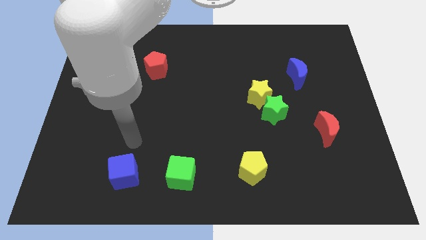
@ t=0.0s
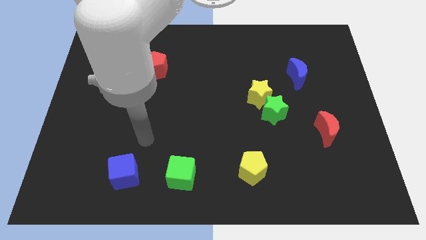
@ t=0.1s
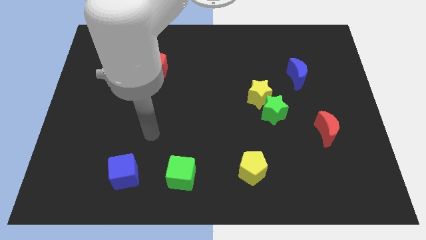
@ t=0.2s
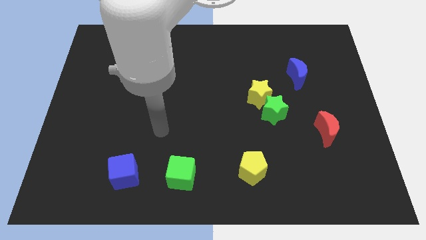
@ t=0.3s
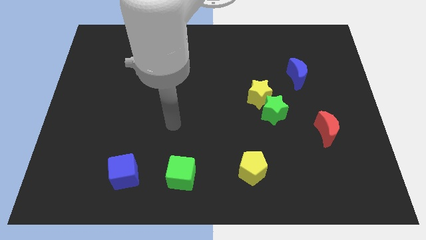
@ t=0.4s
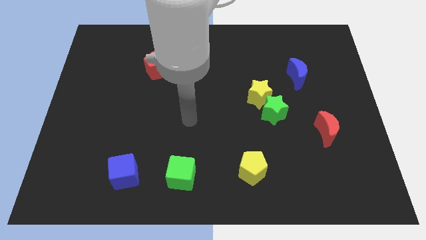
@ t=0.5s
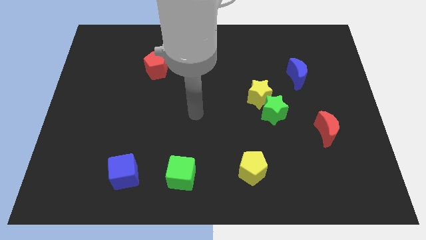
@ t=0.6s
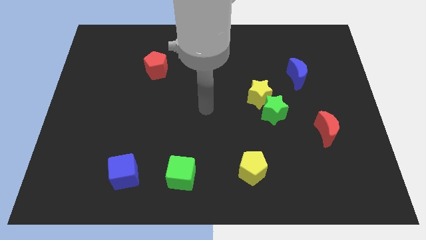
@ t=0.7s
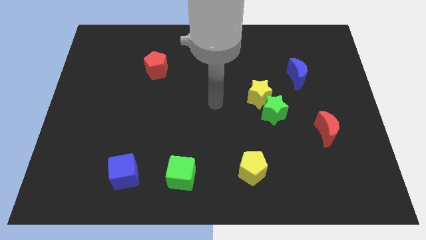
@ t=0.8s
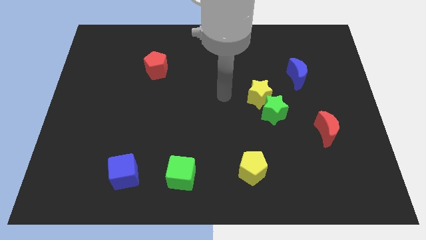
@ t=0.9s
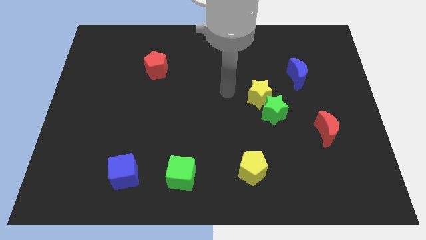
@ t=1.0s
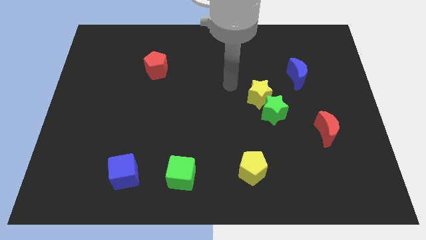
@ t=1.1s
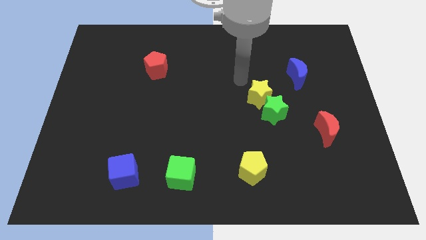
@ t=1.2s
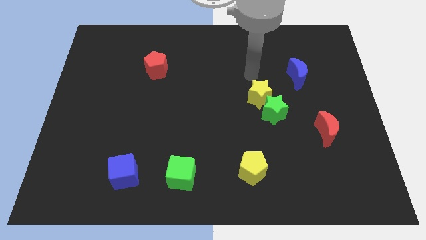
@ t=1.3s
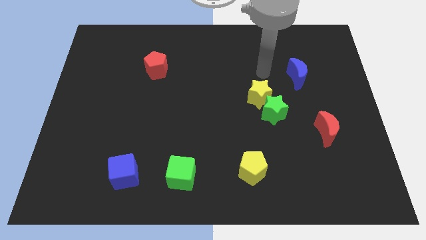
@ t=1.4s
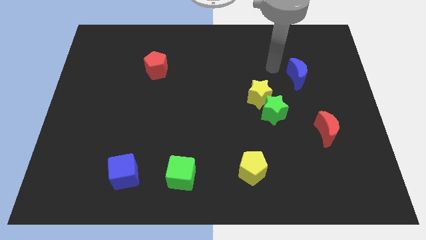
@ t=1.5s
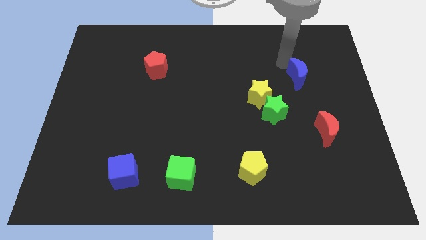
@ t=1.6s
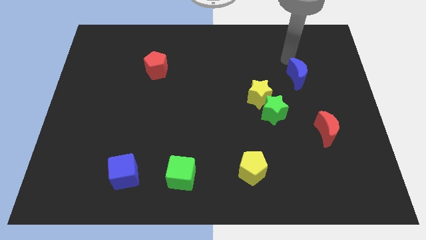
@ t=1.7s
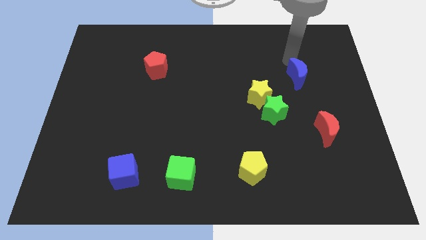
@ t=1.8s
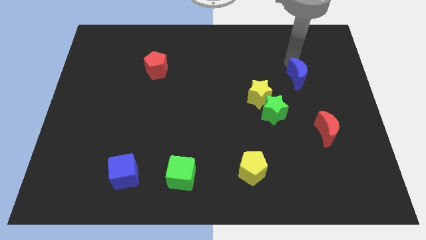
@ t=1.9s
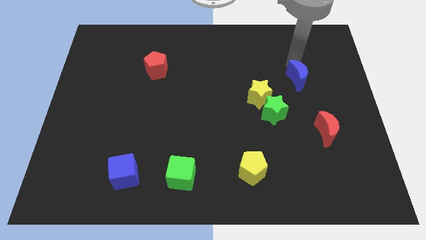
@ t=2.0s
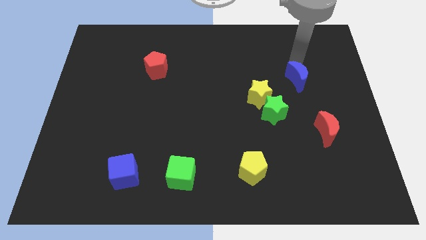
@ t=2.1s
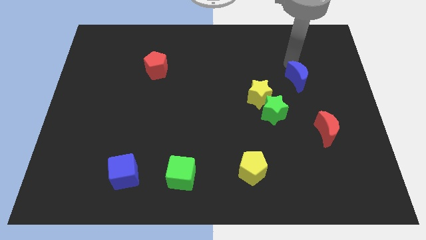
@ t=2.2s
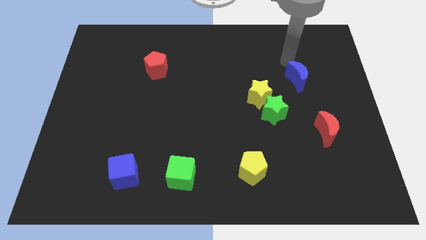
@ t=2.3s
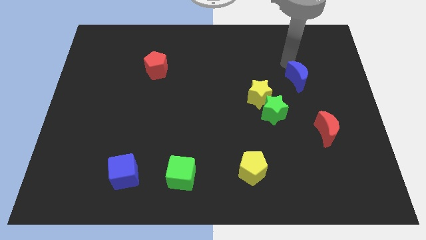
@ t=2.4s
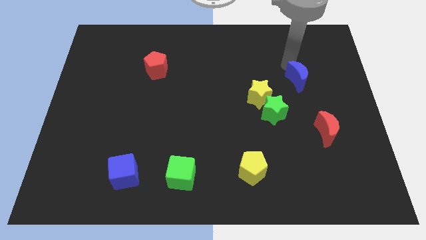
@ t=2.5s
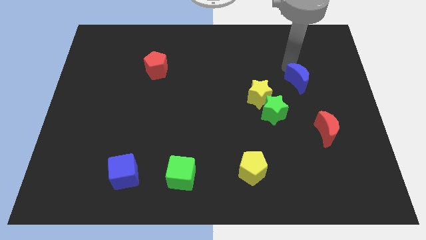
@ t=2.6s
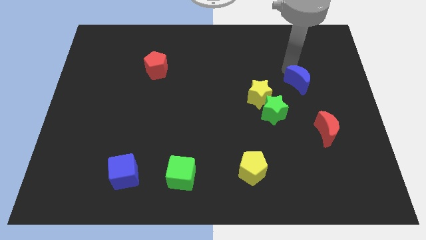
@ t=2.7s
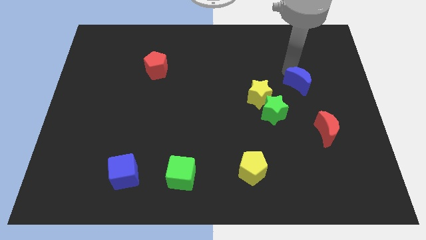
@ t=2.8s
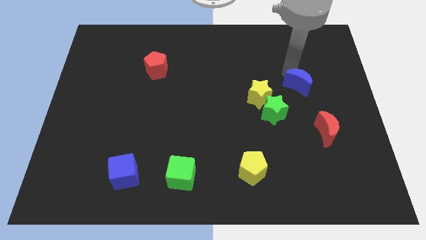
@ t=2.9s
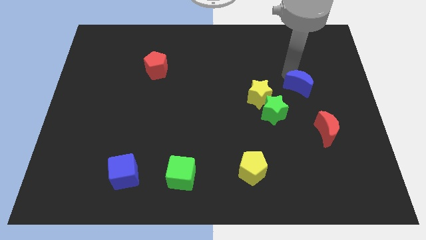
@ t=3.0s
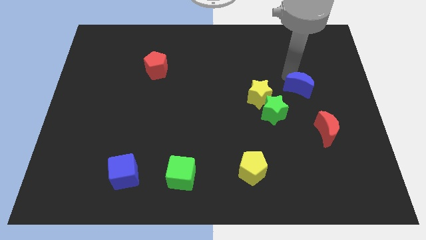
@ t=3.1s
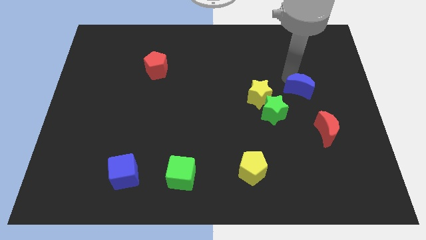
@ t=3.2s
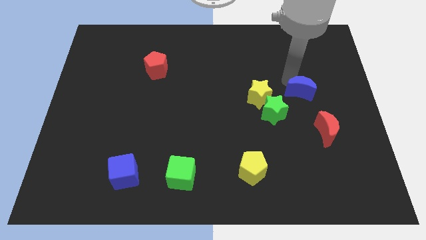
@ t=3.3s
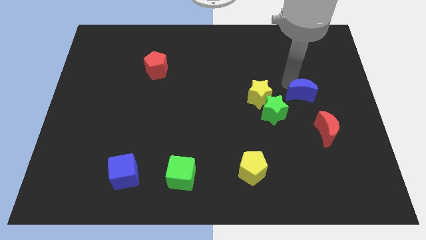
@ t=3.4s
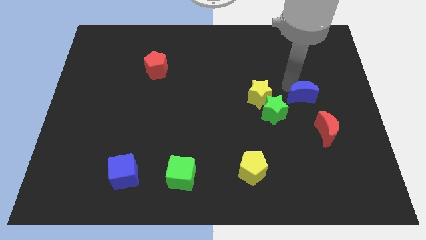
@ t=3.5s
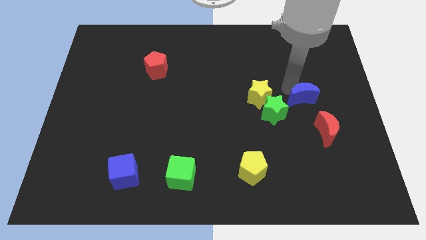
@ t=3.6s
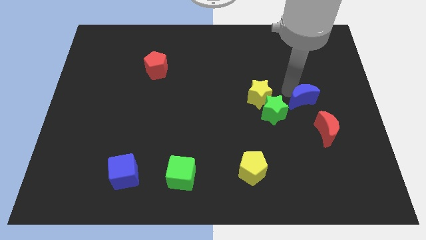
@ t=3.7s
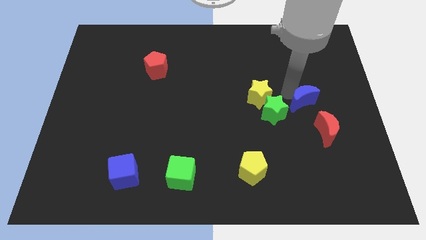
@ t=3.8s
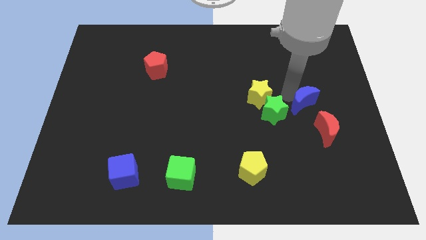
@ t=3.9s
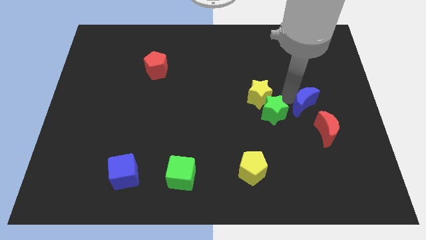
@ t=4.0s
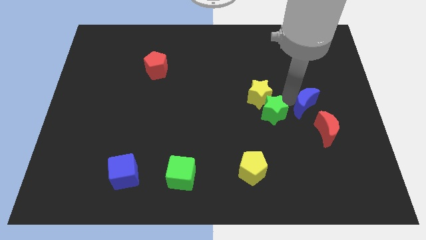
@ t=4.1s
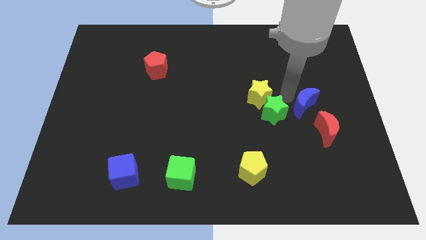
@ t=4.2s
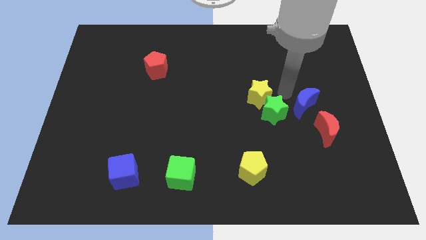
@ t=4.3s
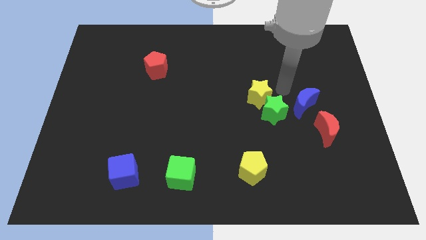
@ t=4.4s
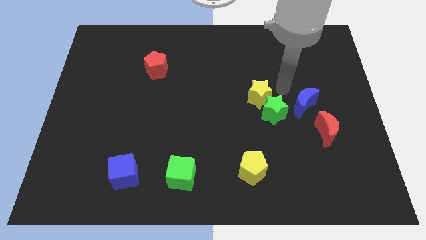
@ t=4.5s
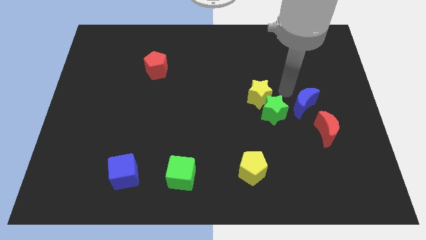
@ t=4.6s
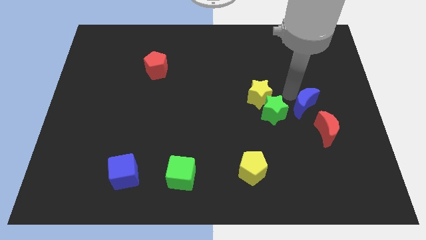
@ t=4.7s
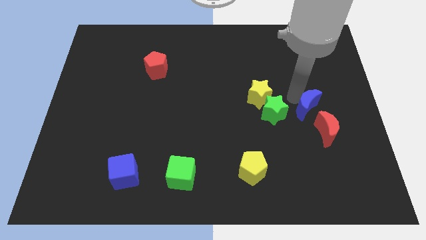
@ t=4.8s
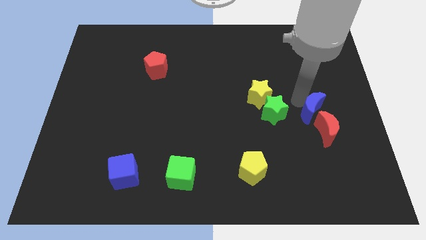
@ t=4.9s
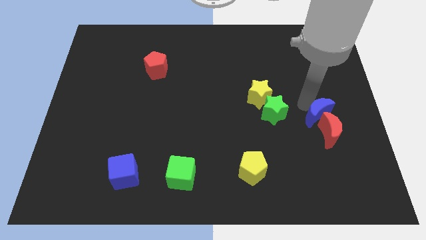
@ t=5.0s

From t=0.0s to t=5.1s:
move the blue moon close to the red moon

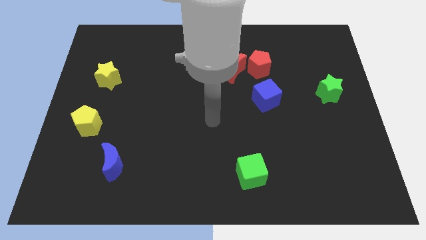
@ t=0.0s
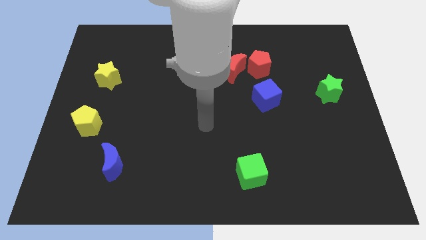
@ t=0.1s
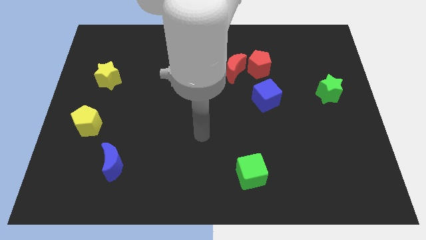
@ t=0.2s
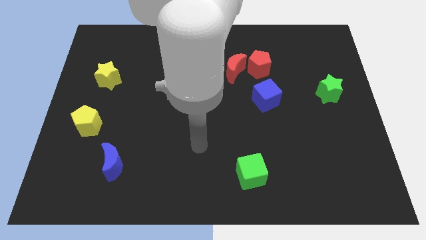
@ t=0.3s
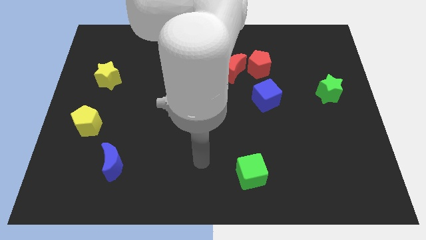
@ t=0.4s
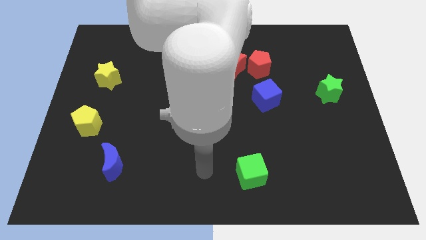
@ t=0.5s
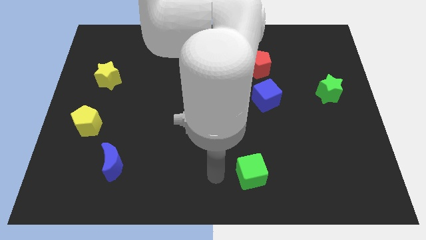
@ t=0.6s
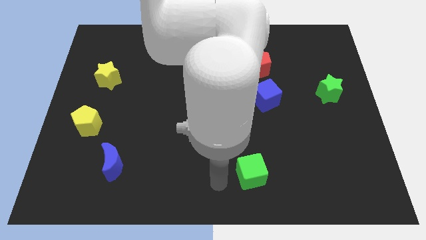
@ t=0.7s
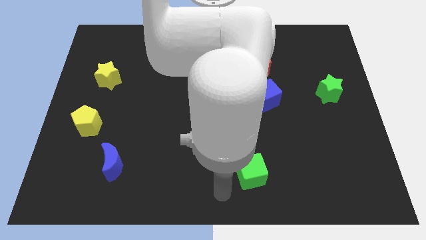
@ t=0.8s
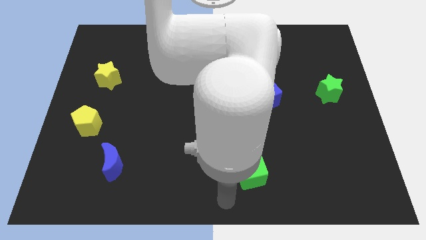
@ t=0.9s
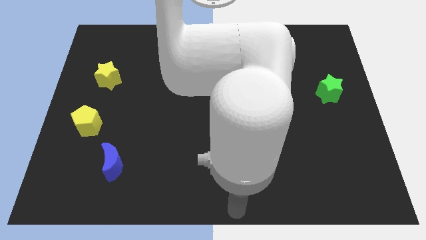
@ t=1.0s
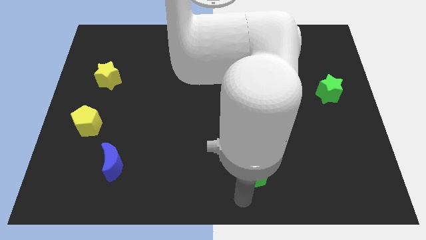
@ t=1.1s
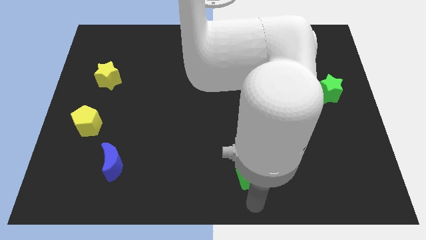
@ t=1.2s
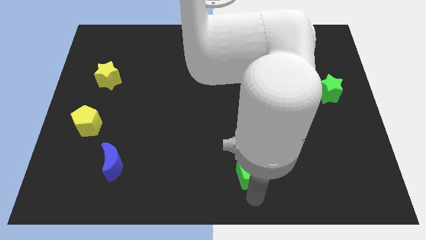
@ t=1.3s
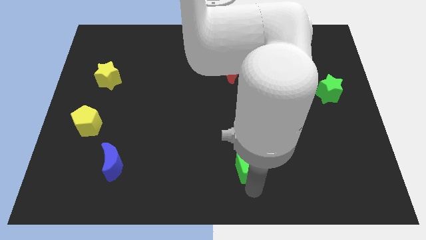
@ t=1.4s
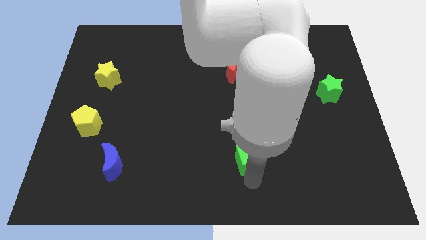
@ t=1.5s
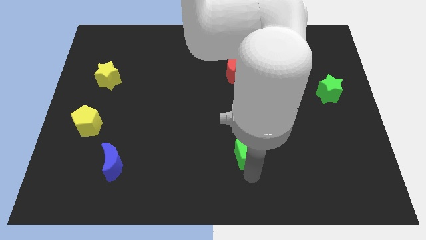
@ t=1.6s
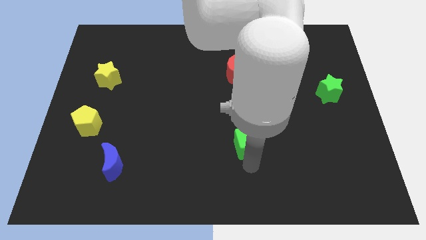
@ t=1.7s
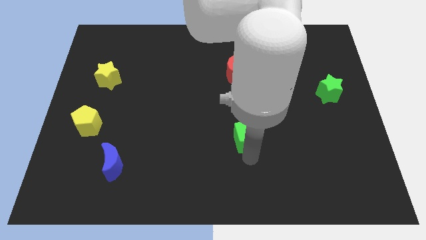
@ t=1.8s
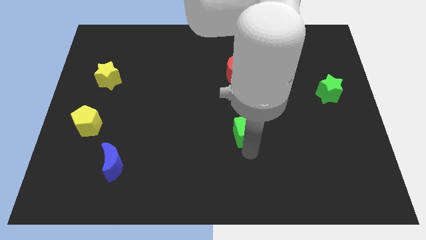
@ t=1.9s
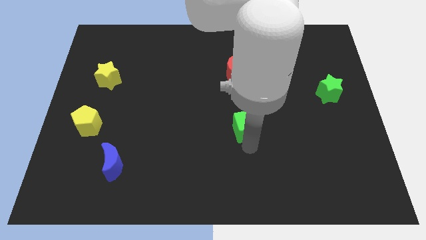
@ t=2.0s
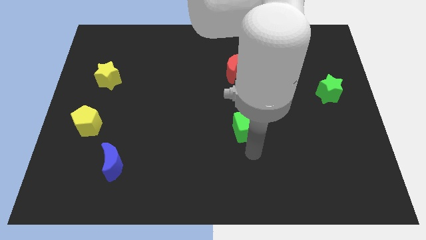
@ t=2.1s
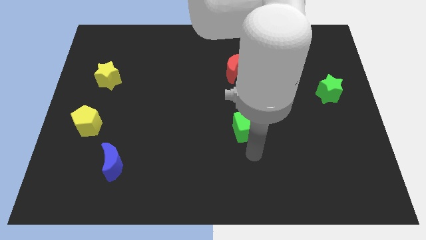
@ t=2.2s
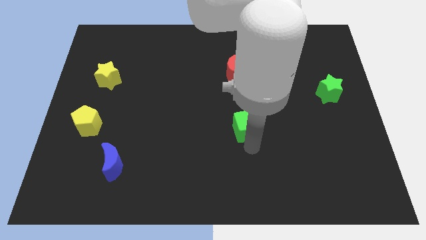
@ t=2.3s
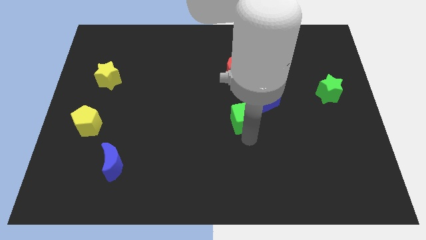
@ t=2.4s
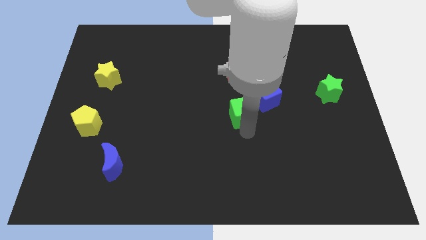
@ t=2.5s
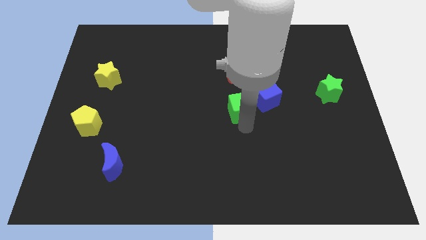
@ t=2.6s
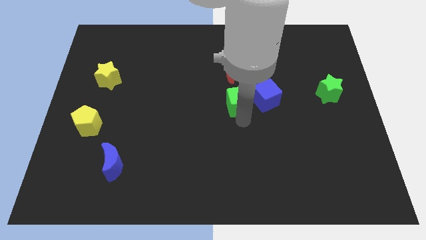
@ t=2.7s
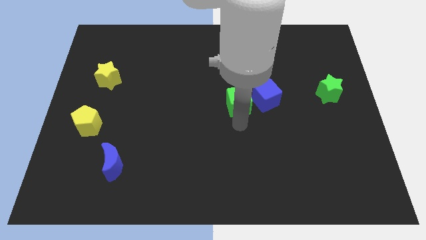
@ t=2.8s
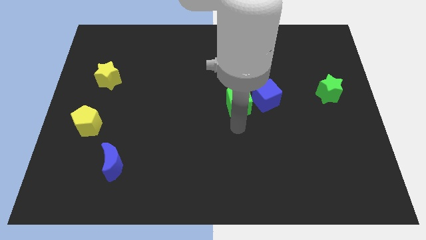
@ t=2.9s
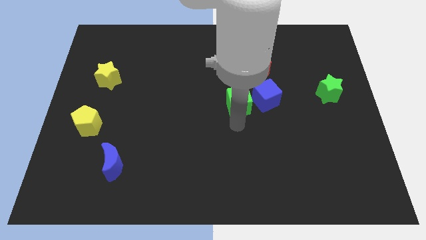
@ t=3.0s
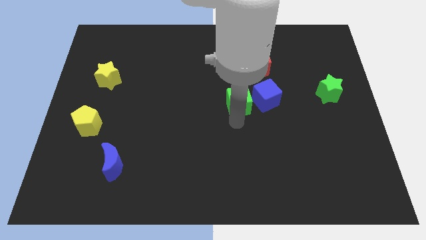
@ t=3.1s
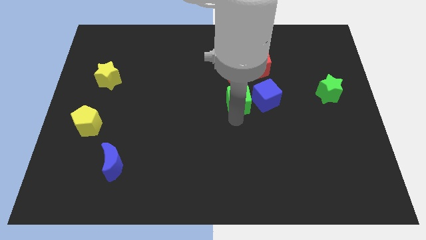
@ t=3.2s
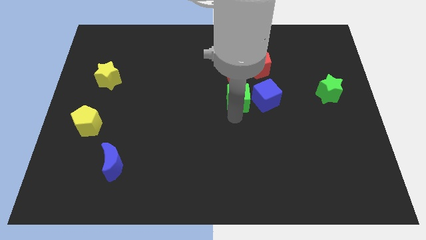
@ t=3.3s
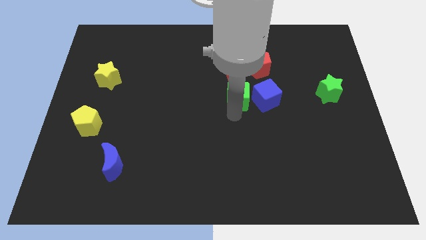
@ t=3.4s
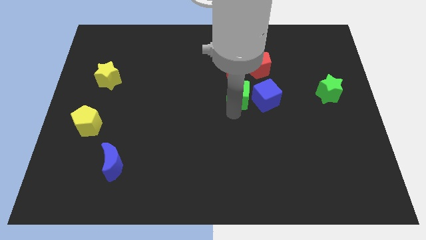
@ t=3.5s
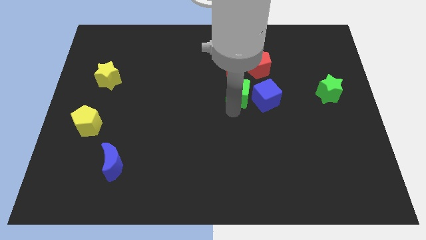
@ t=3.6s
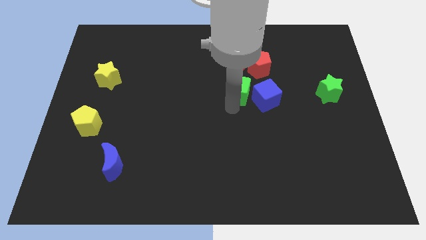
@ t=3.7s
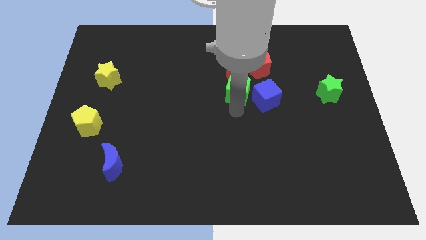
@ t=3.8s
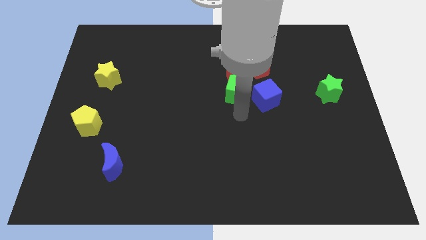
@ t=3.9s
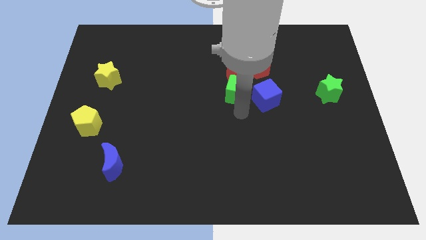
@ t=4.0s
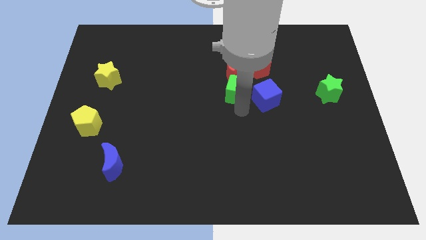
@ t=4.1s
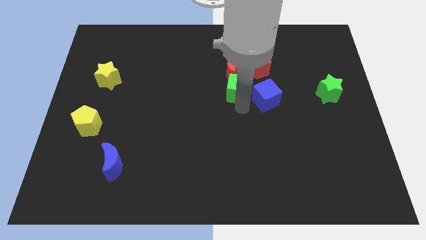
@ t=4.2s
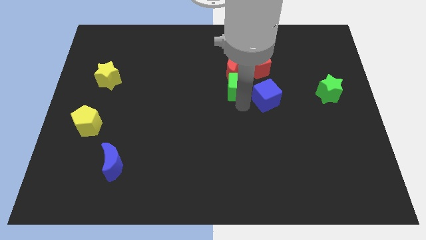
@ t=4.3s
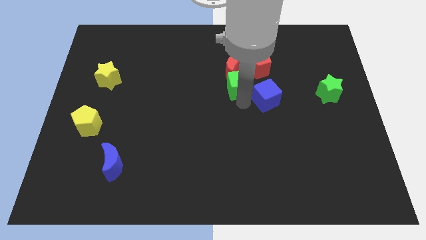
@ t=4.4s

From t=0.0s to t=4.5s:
put the green cube close to the red moon
